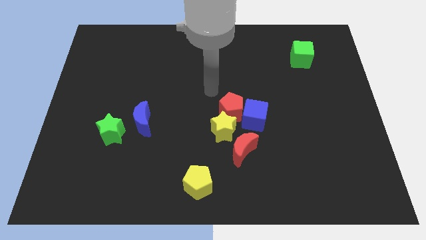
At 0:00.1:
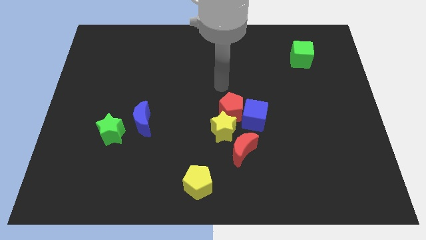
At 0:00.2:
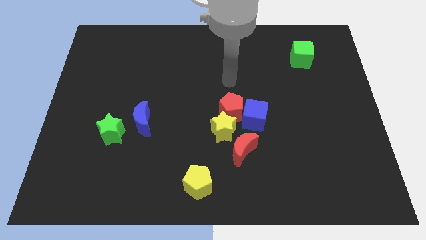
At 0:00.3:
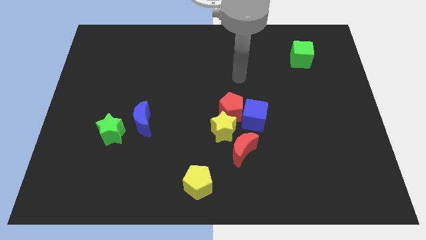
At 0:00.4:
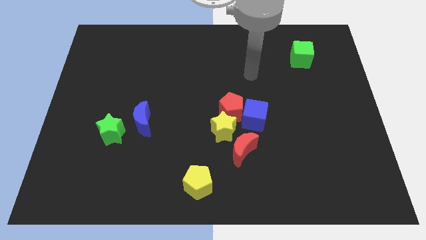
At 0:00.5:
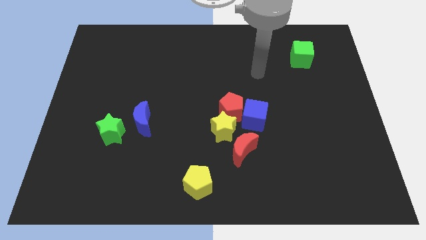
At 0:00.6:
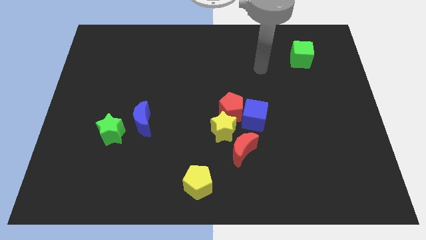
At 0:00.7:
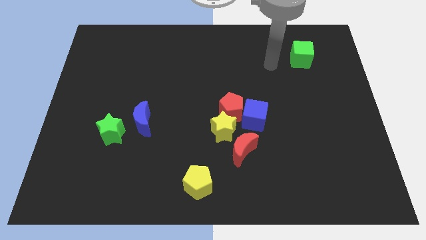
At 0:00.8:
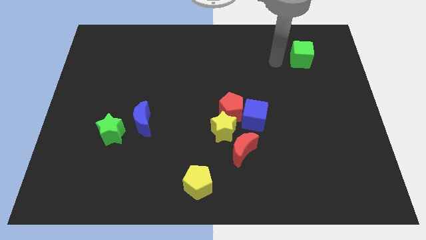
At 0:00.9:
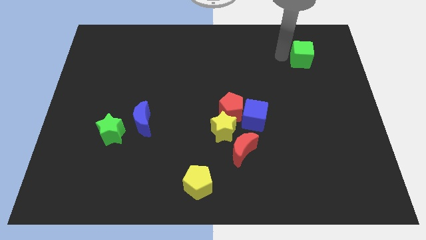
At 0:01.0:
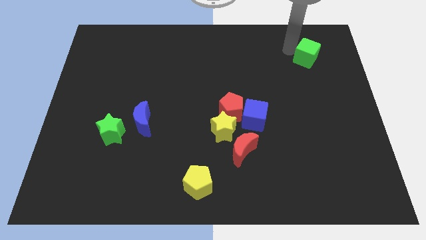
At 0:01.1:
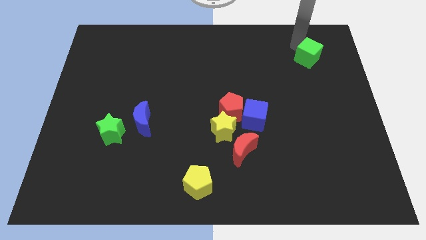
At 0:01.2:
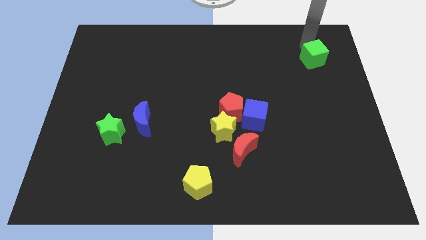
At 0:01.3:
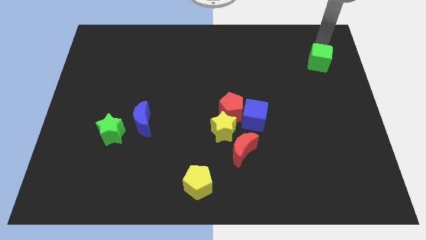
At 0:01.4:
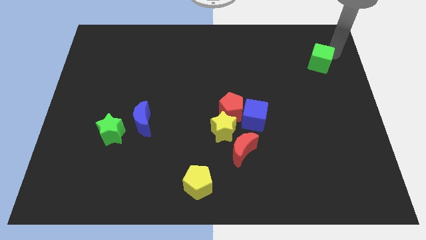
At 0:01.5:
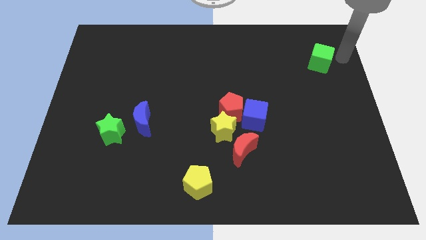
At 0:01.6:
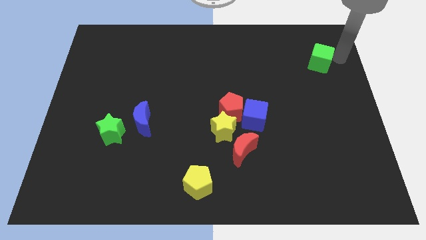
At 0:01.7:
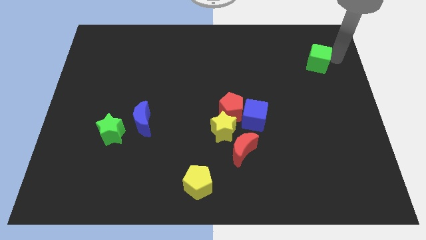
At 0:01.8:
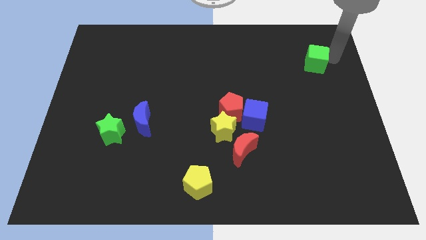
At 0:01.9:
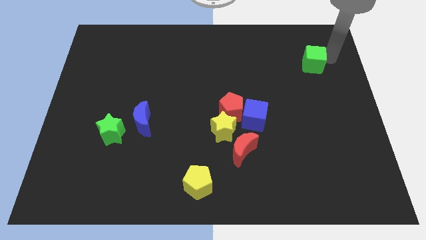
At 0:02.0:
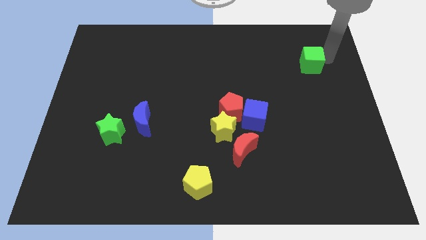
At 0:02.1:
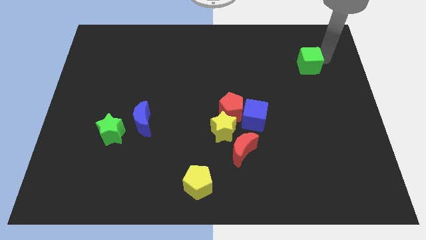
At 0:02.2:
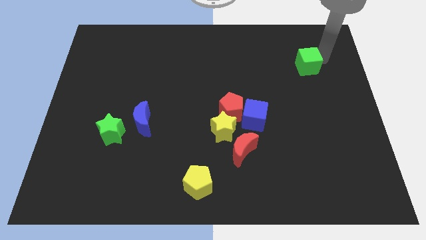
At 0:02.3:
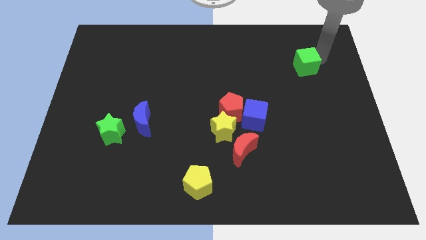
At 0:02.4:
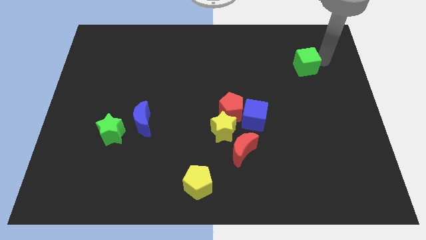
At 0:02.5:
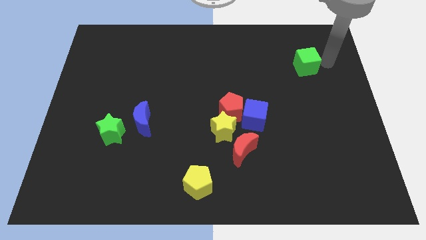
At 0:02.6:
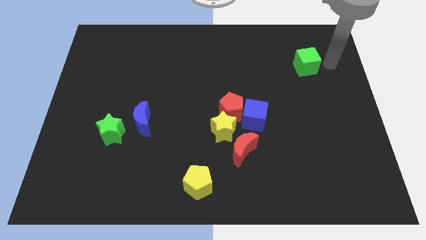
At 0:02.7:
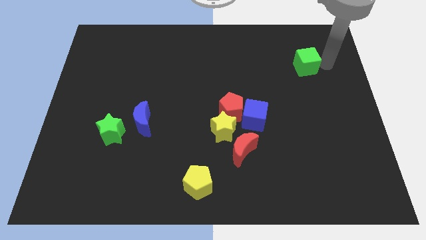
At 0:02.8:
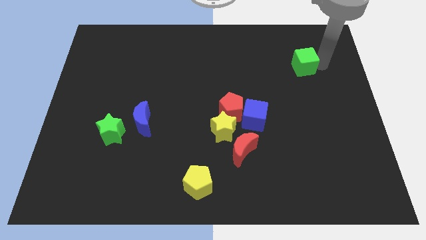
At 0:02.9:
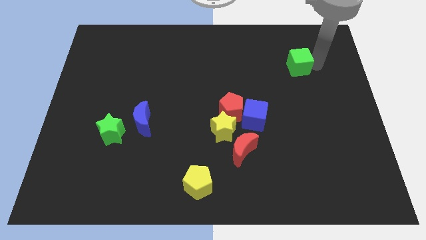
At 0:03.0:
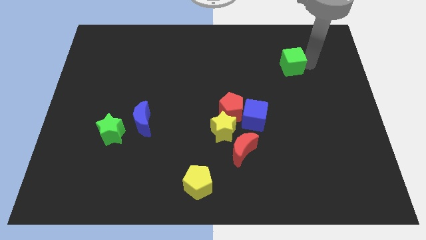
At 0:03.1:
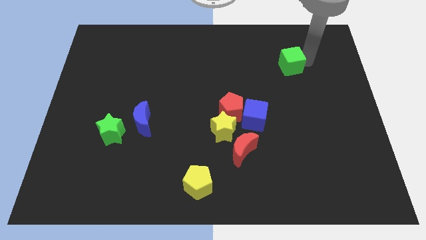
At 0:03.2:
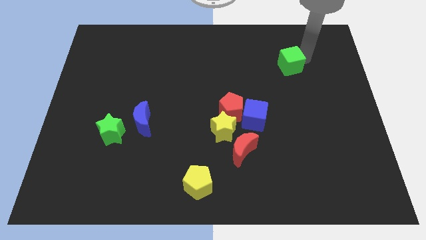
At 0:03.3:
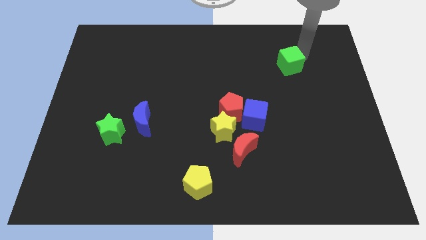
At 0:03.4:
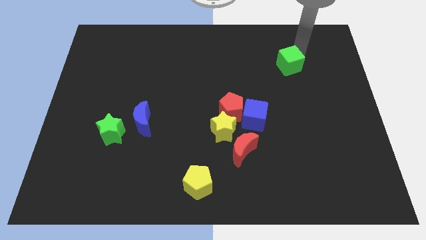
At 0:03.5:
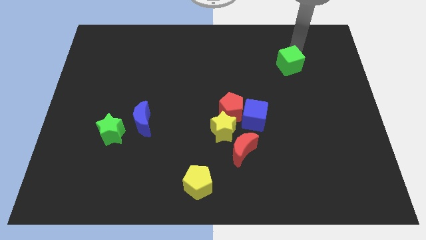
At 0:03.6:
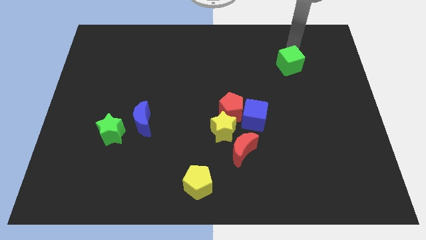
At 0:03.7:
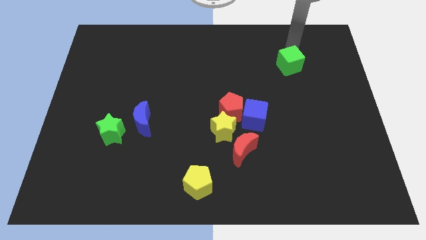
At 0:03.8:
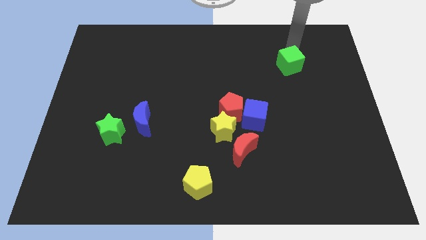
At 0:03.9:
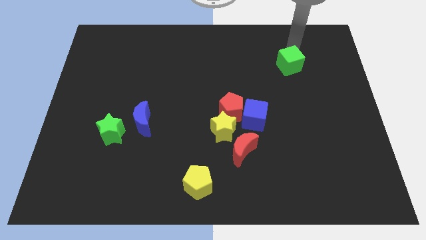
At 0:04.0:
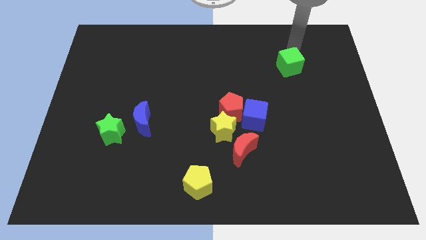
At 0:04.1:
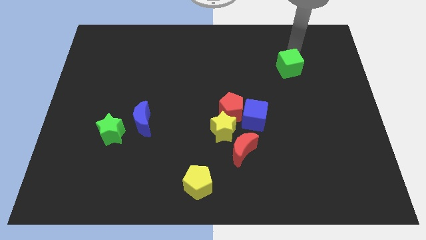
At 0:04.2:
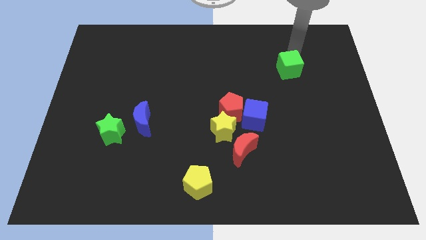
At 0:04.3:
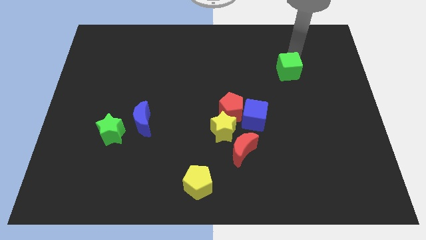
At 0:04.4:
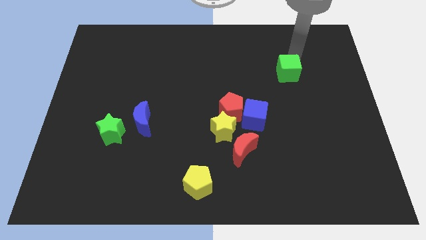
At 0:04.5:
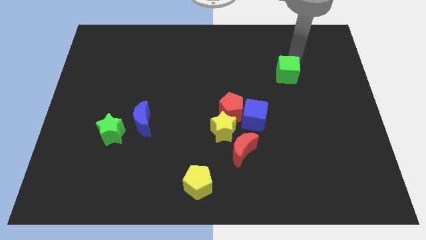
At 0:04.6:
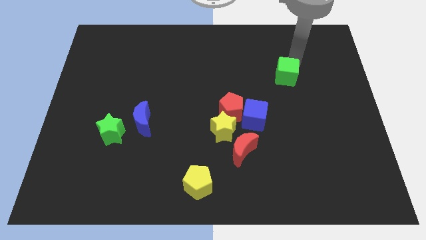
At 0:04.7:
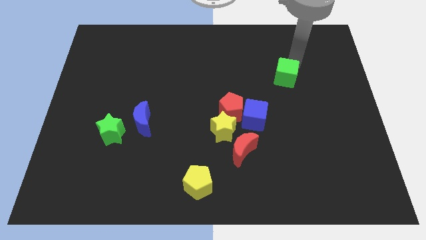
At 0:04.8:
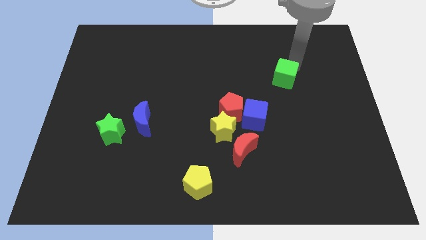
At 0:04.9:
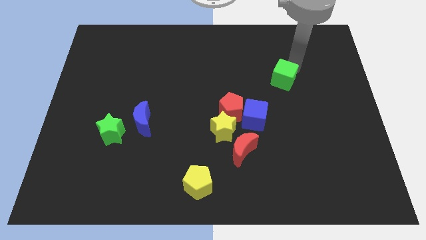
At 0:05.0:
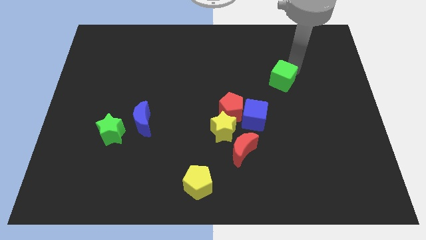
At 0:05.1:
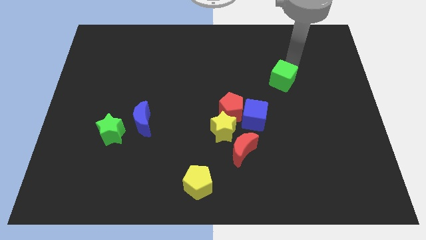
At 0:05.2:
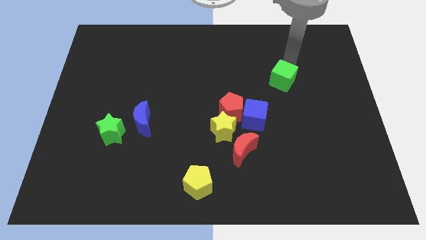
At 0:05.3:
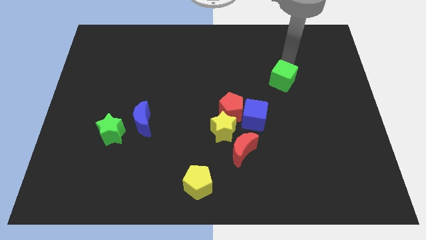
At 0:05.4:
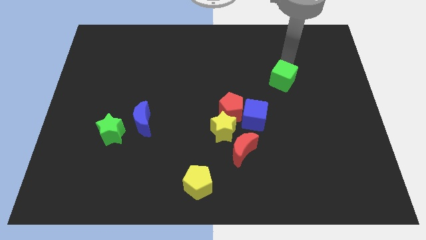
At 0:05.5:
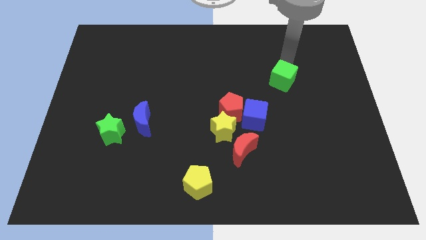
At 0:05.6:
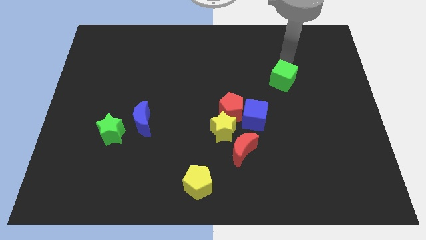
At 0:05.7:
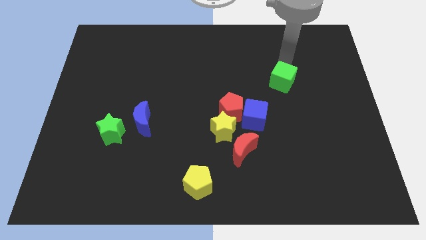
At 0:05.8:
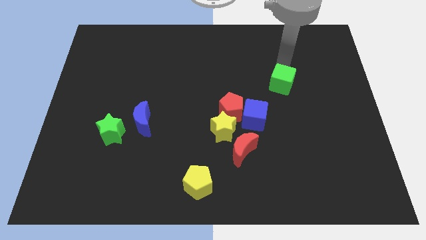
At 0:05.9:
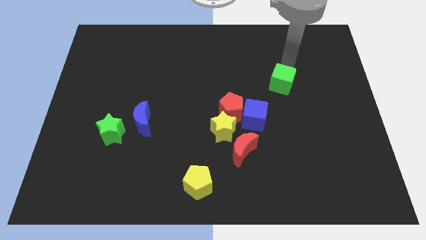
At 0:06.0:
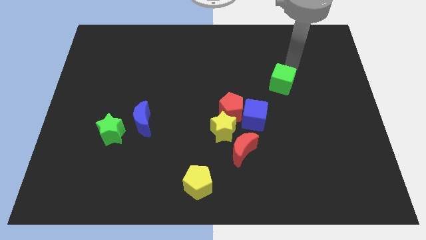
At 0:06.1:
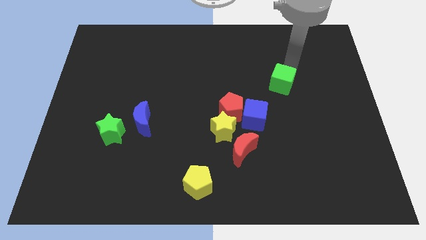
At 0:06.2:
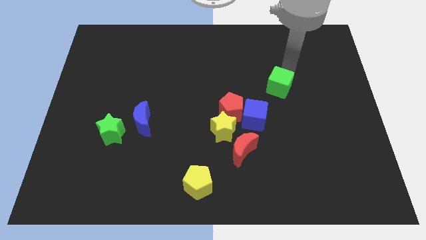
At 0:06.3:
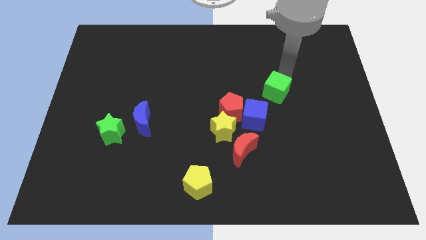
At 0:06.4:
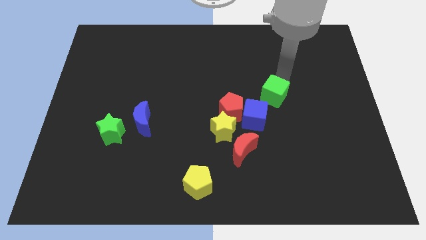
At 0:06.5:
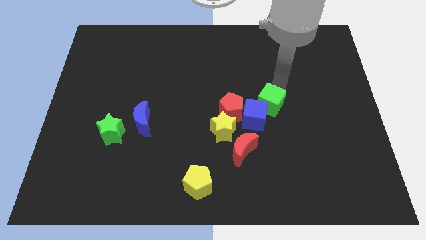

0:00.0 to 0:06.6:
move the green cube to the blue cube
